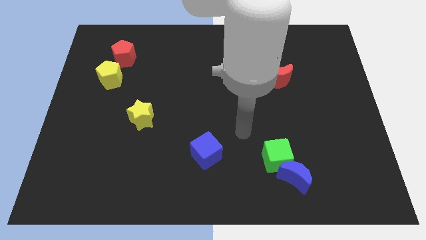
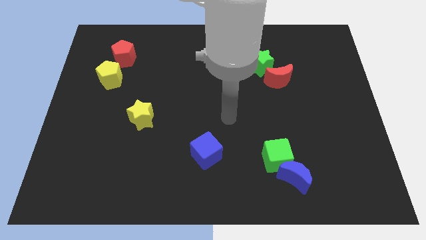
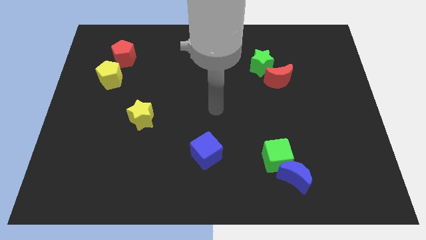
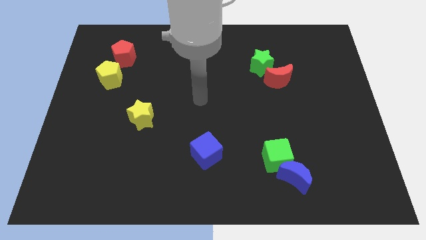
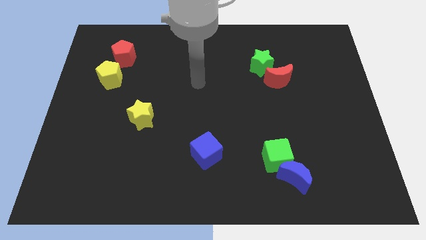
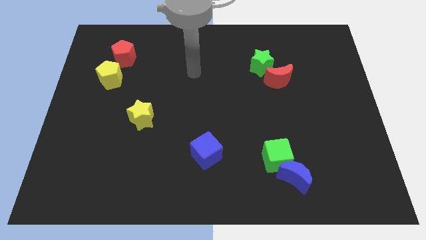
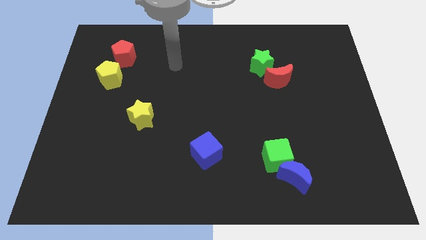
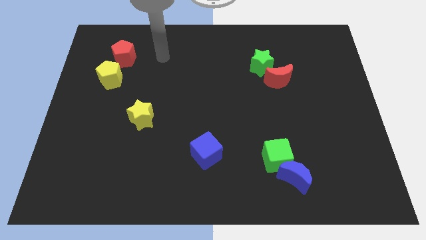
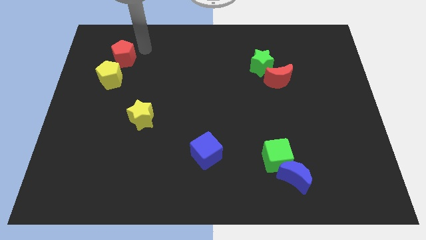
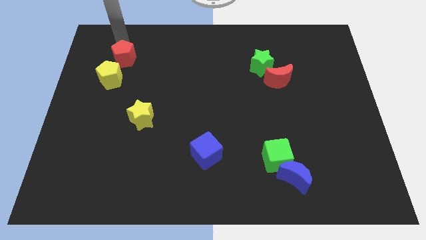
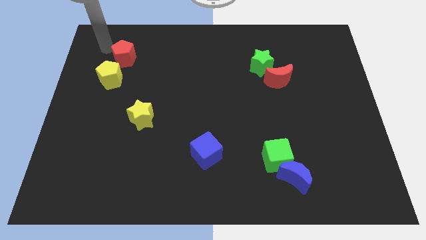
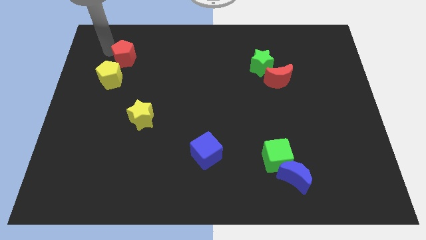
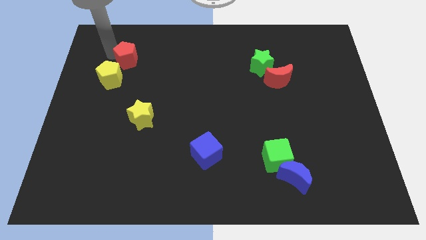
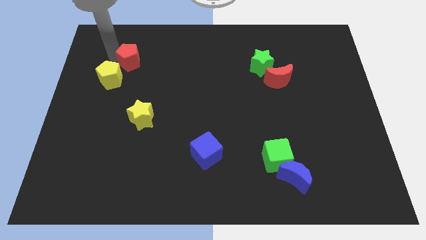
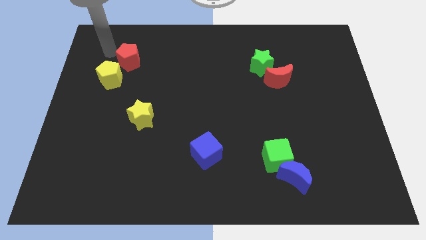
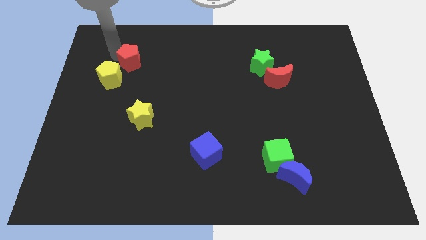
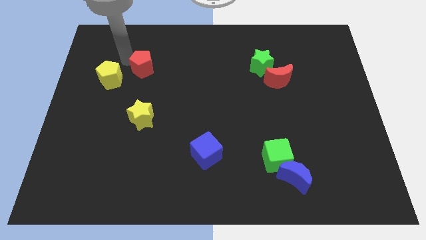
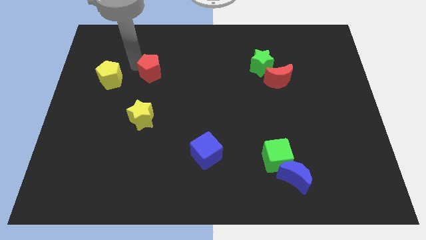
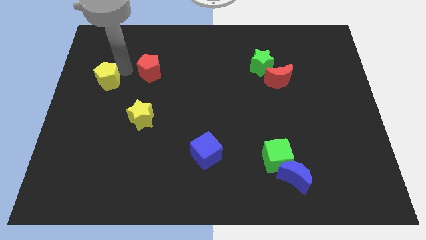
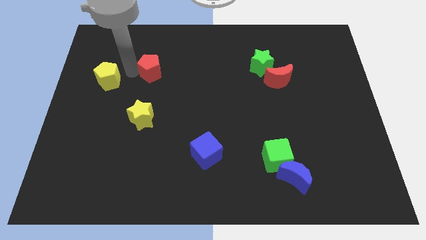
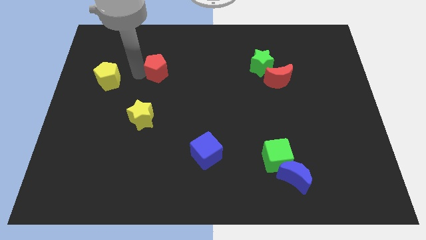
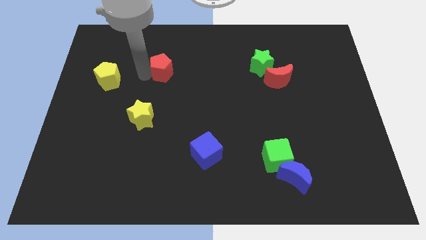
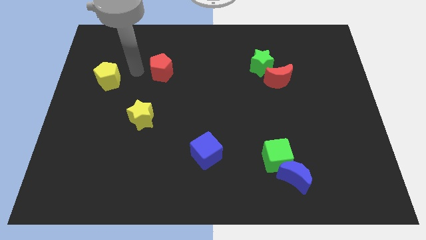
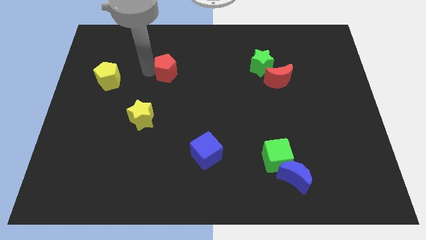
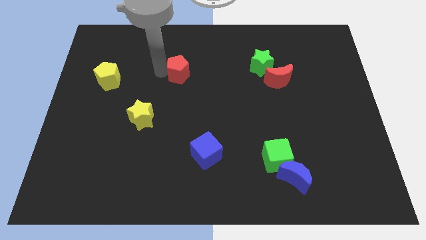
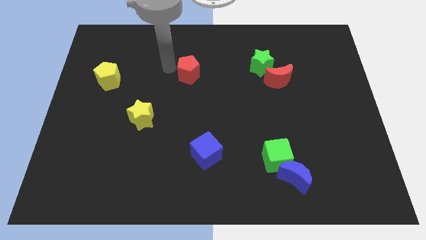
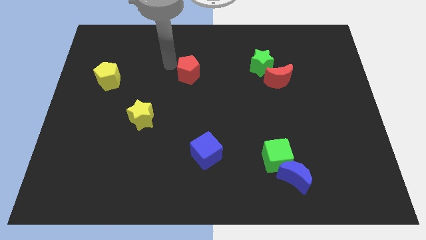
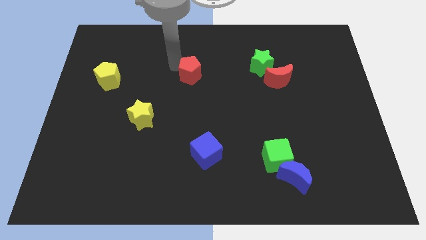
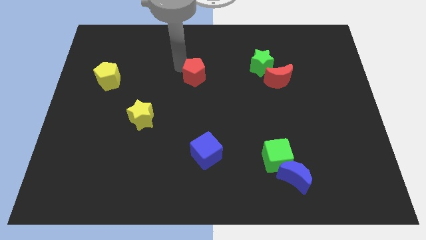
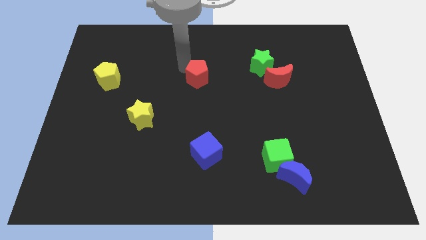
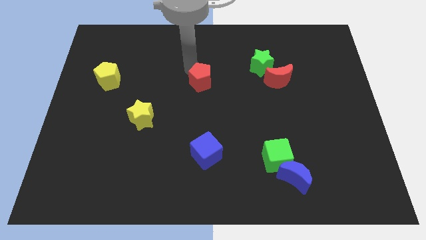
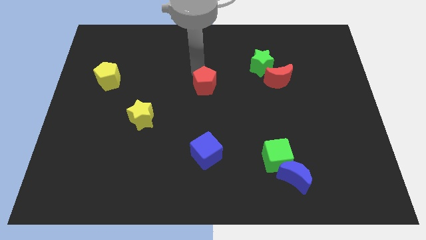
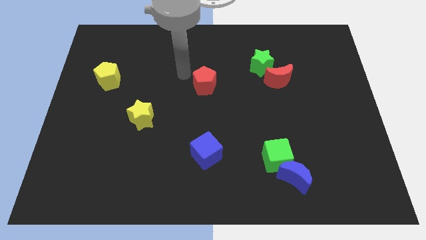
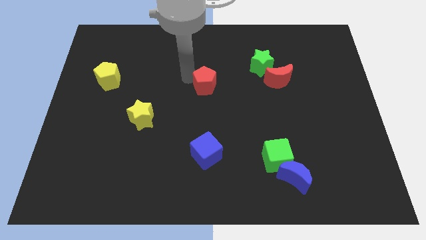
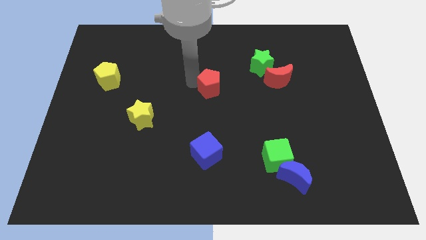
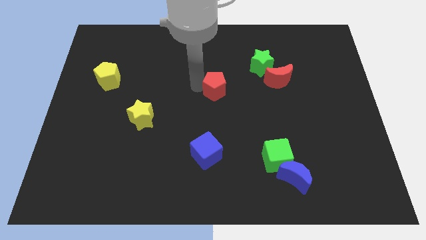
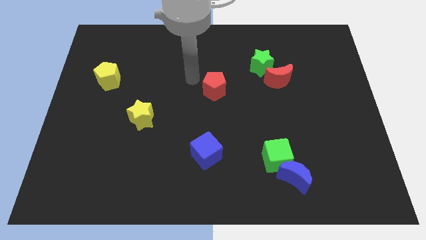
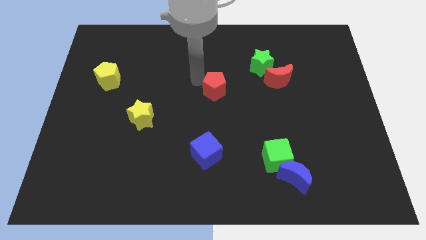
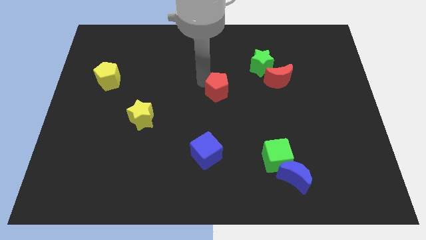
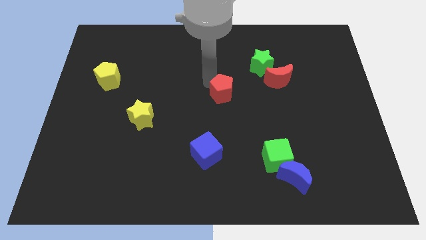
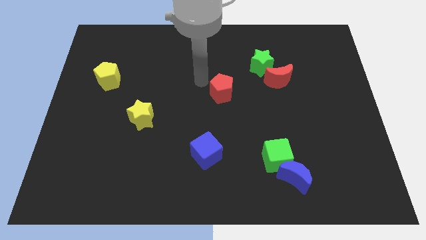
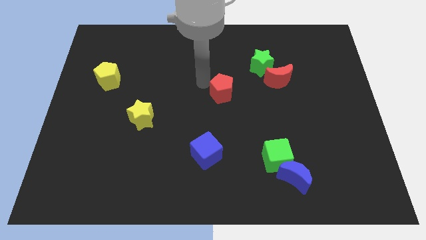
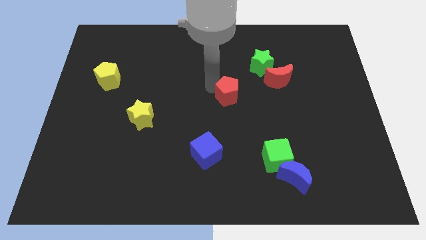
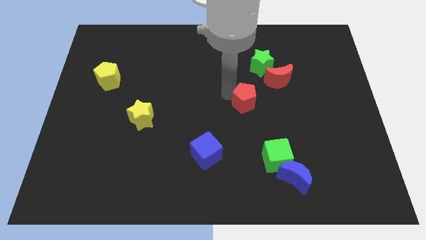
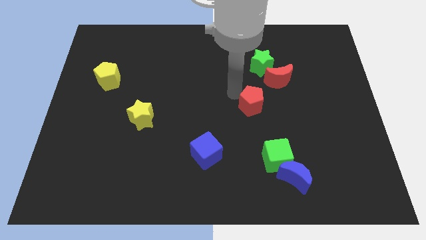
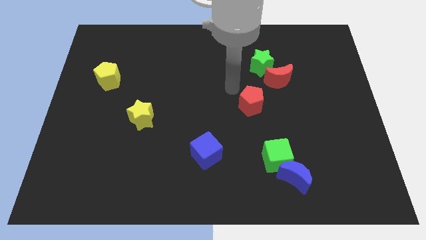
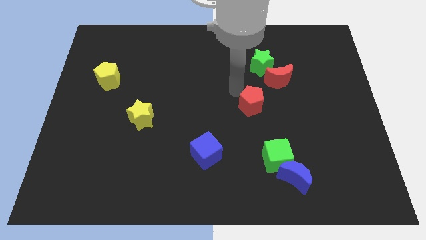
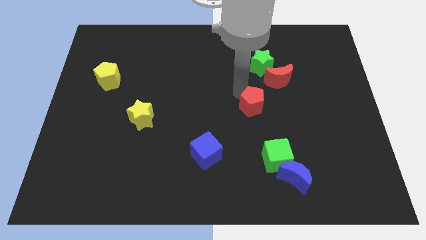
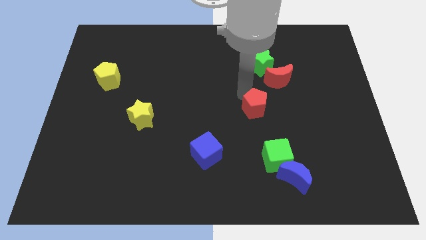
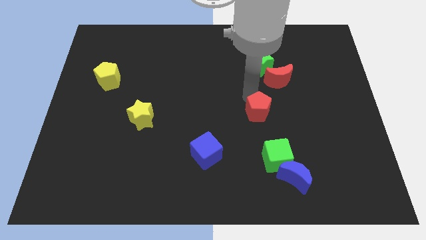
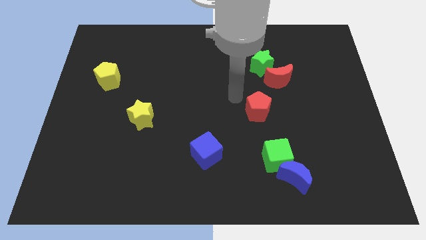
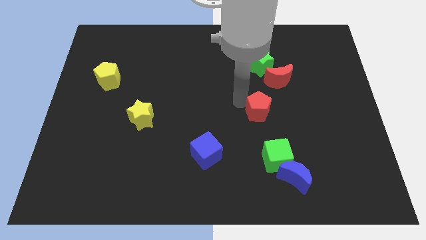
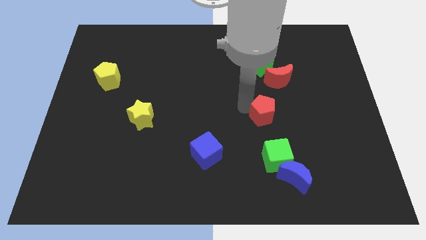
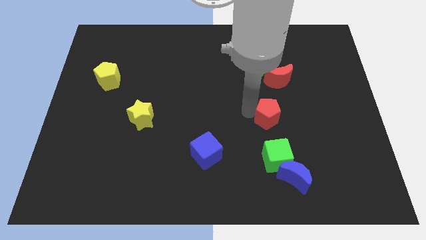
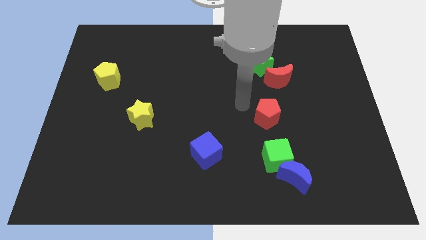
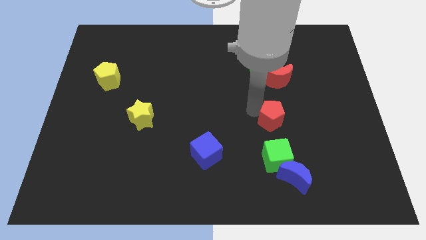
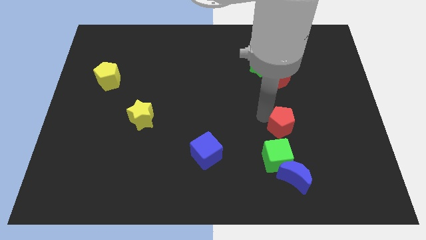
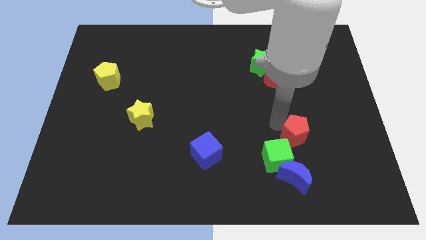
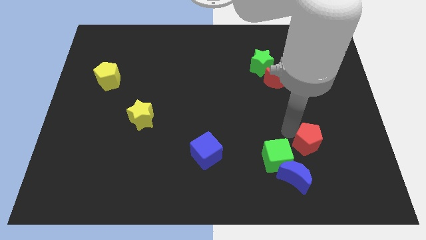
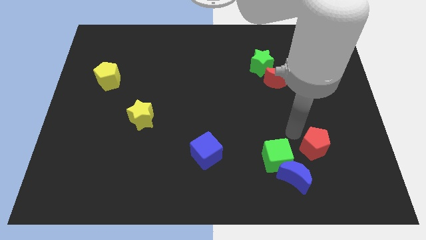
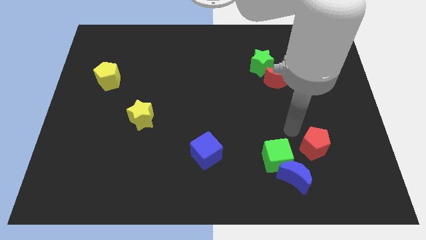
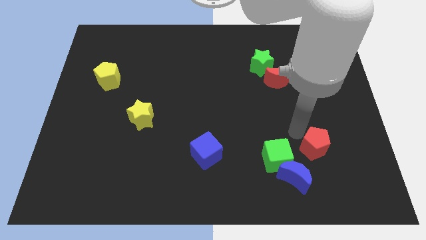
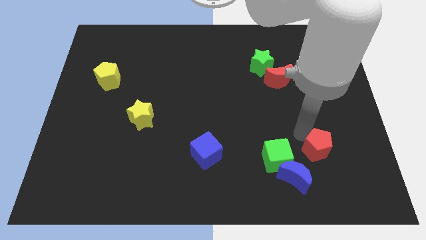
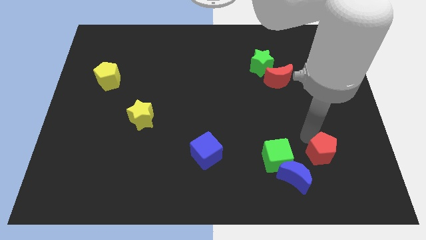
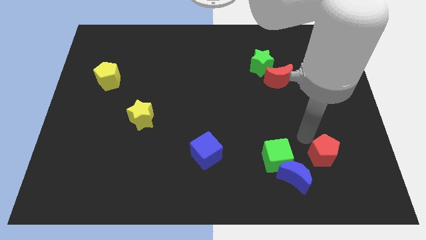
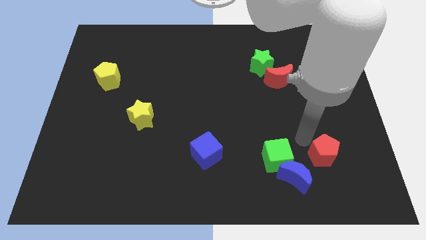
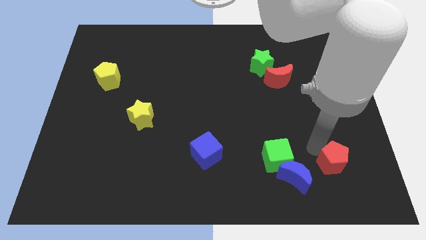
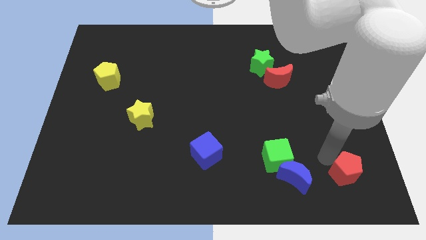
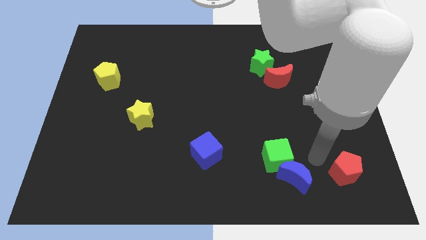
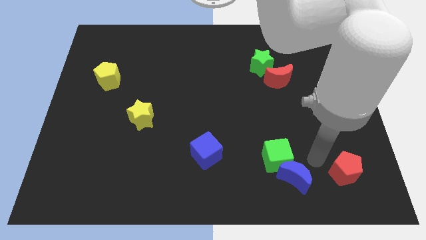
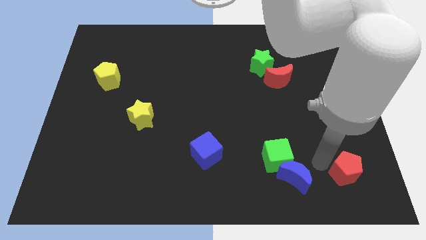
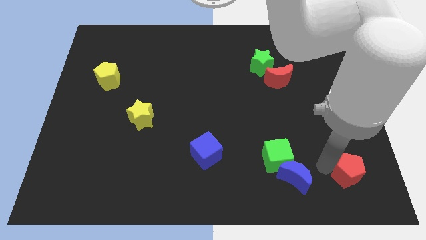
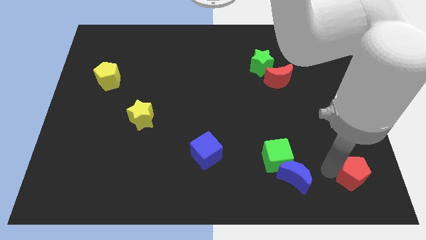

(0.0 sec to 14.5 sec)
put the red pentagon to the bottom right corner
